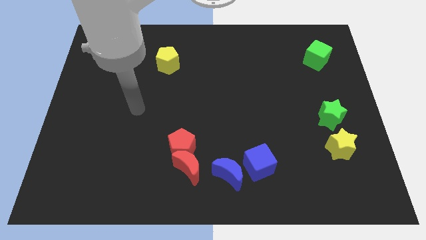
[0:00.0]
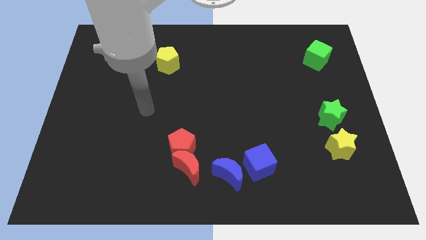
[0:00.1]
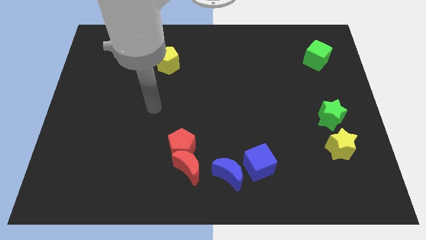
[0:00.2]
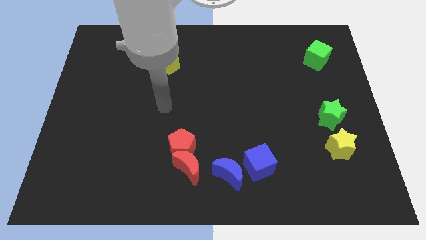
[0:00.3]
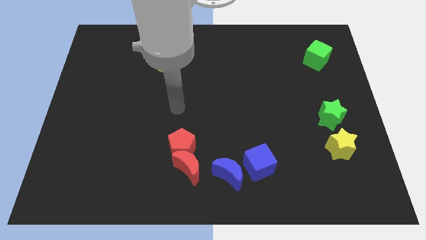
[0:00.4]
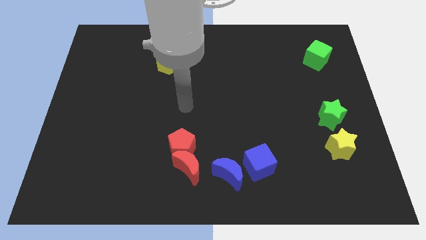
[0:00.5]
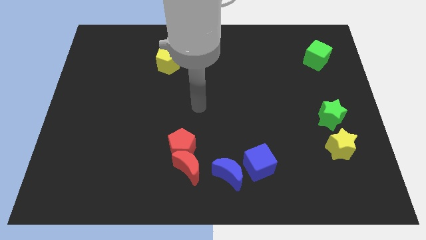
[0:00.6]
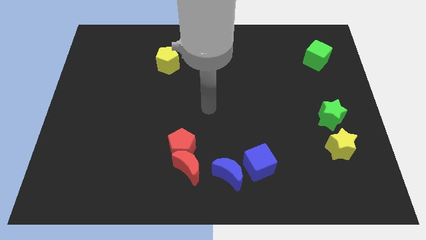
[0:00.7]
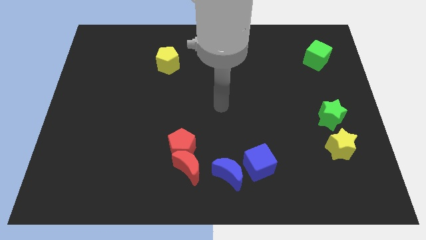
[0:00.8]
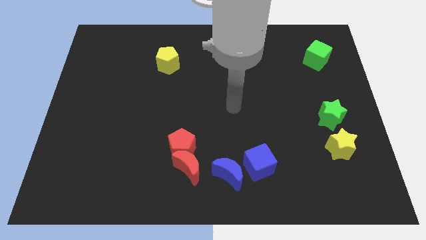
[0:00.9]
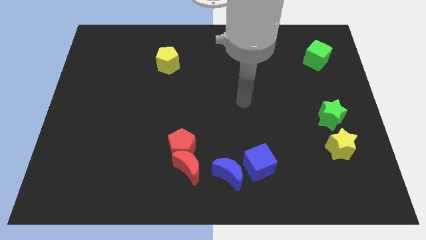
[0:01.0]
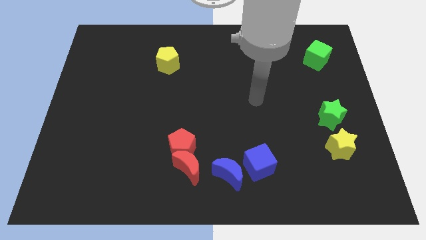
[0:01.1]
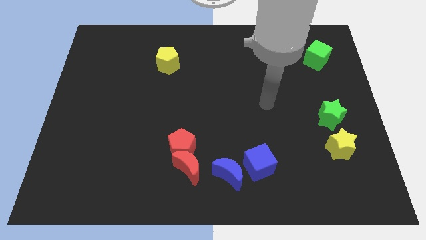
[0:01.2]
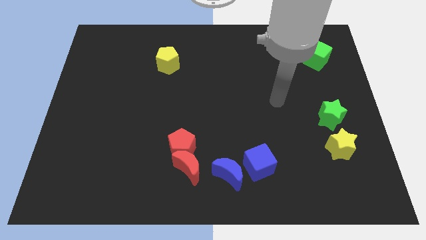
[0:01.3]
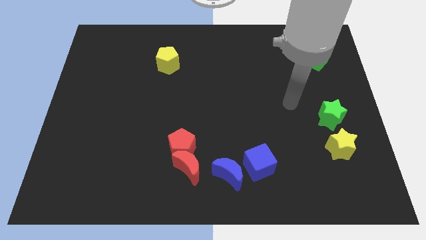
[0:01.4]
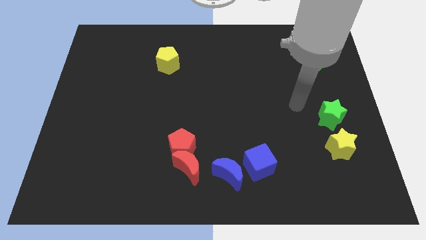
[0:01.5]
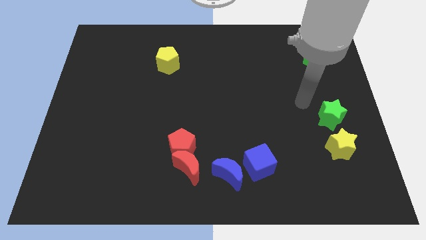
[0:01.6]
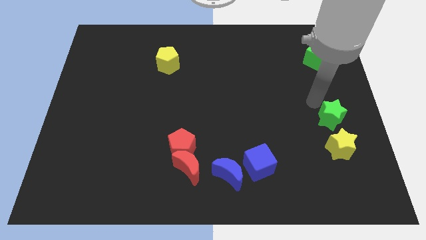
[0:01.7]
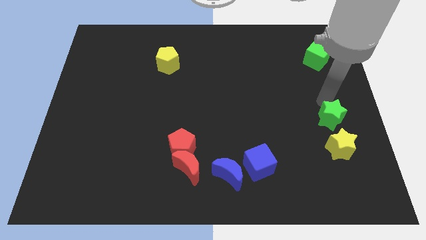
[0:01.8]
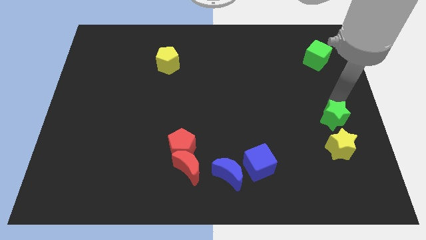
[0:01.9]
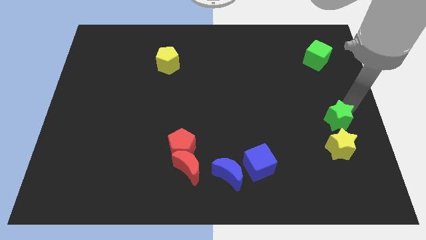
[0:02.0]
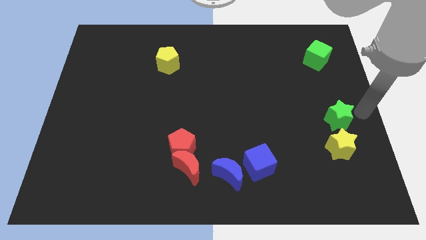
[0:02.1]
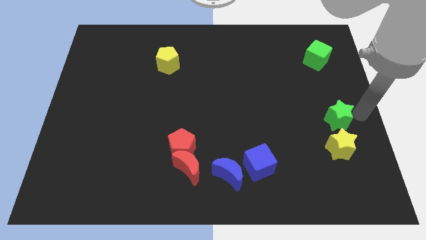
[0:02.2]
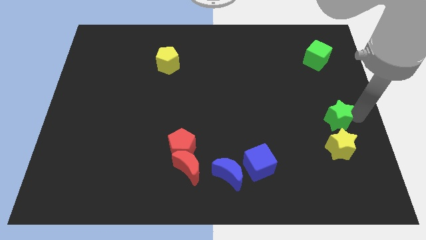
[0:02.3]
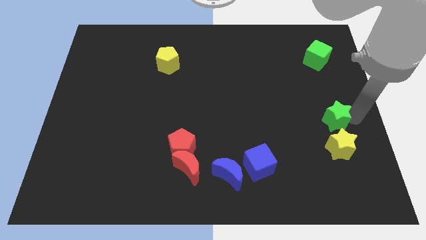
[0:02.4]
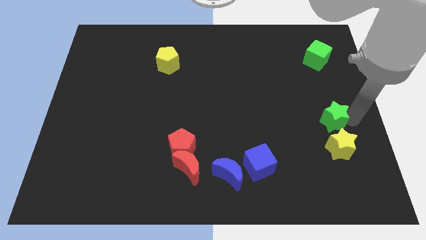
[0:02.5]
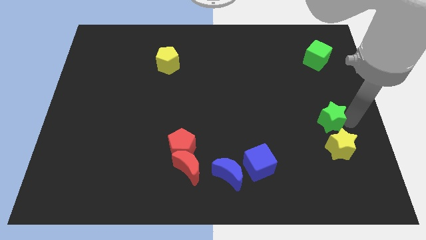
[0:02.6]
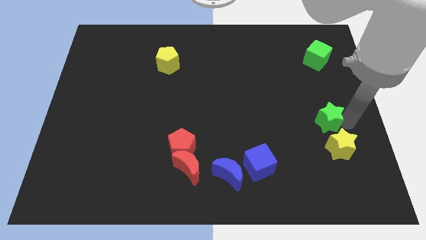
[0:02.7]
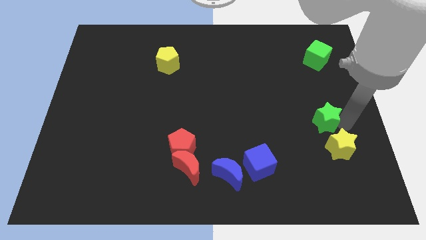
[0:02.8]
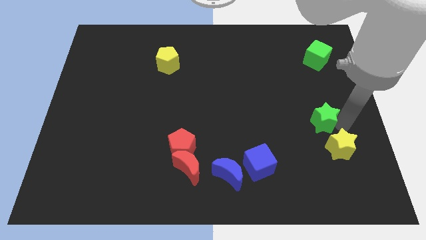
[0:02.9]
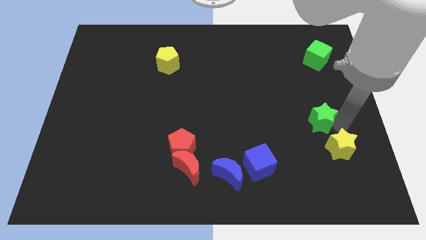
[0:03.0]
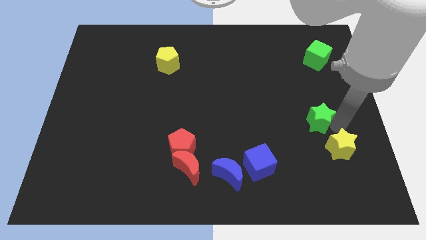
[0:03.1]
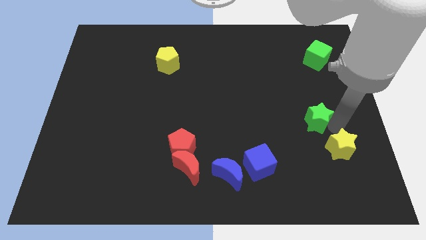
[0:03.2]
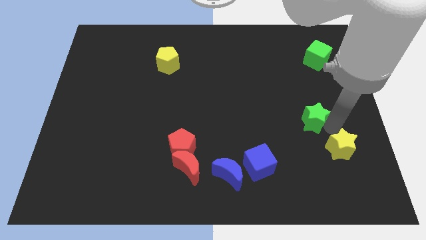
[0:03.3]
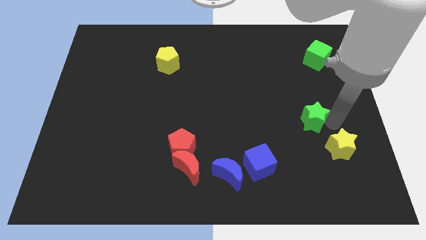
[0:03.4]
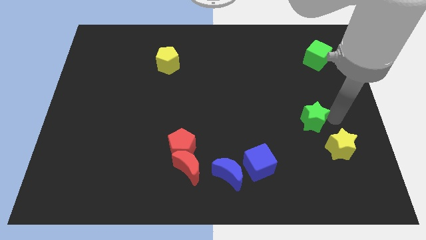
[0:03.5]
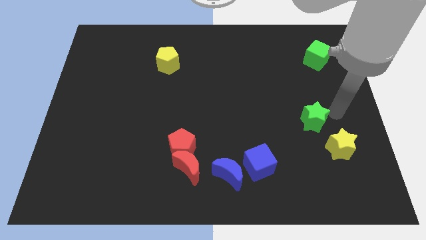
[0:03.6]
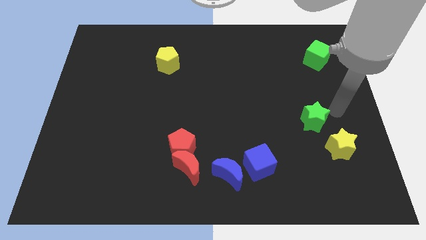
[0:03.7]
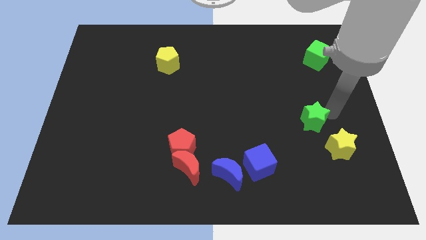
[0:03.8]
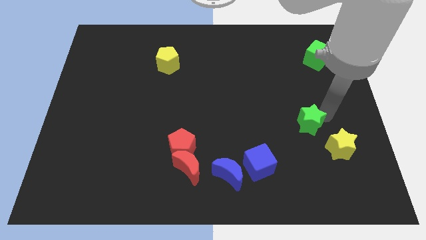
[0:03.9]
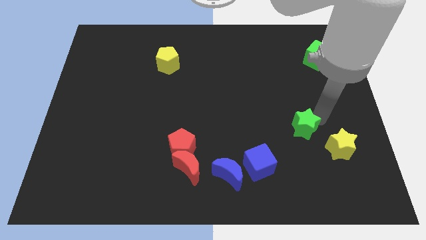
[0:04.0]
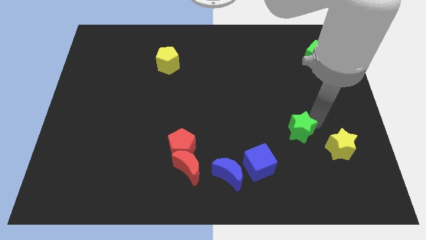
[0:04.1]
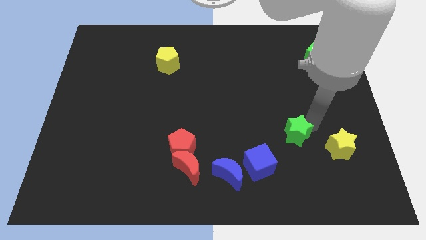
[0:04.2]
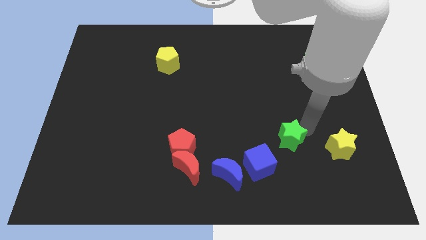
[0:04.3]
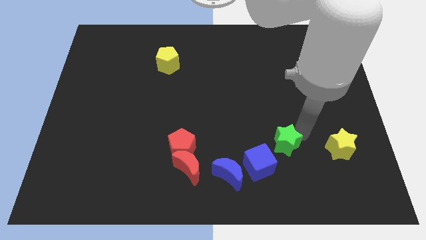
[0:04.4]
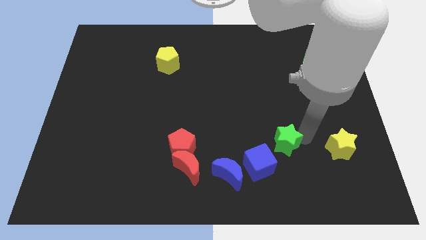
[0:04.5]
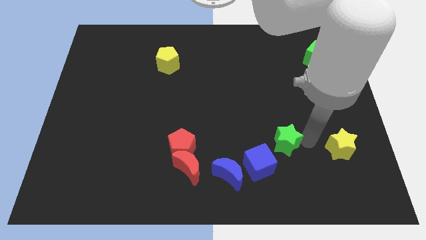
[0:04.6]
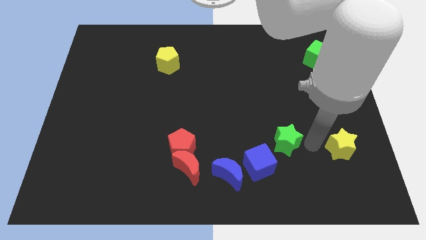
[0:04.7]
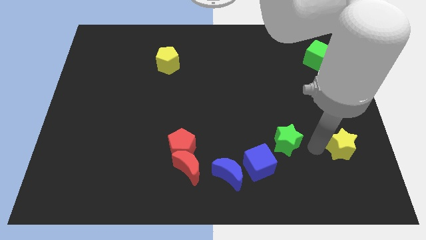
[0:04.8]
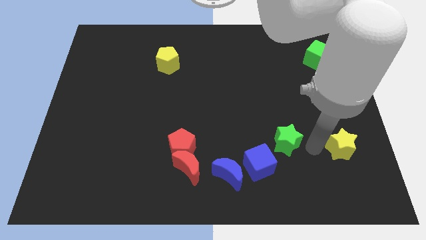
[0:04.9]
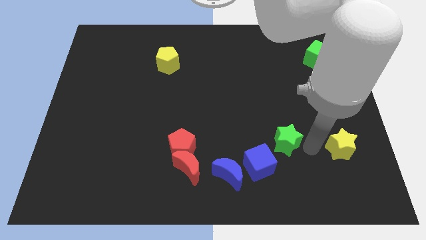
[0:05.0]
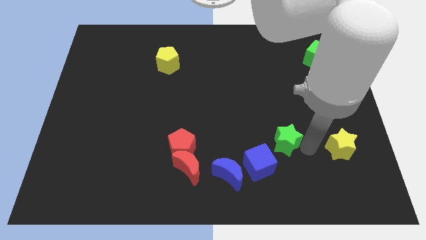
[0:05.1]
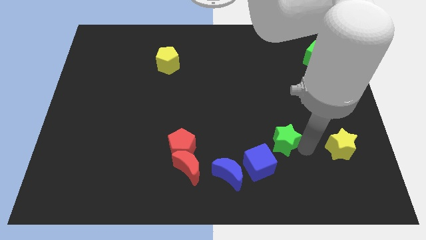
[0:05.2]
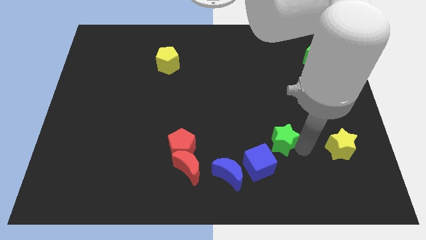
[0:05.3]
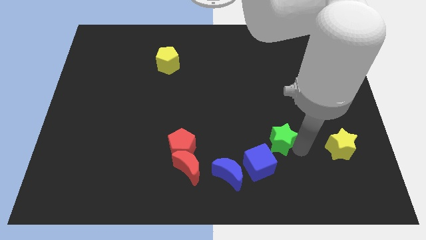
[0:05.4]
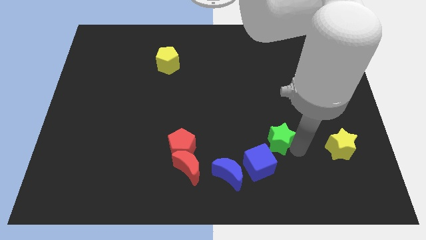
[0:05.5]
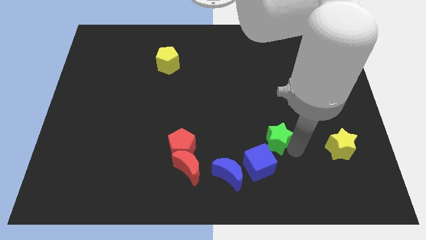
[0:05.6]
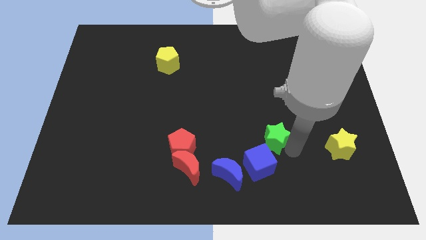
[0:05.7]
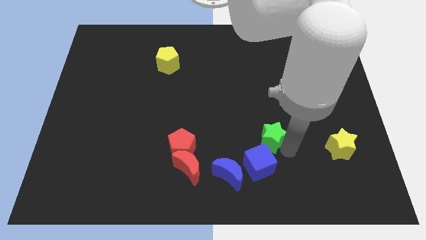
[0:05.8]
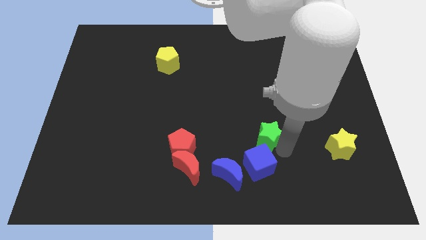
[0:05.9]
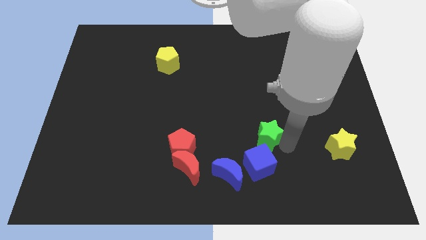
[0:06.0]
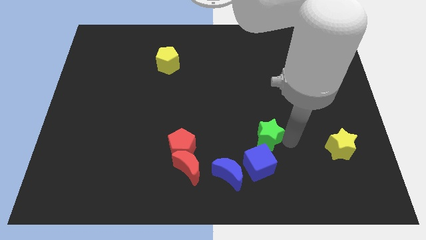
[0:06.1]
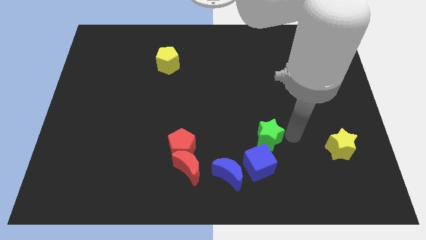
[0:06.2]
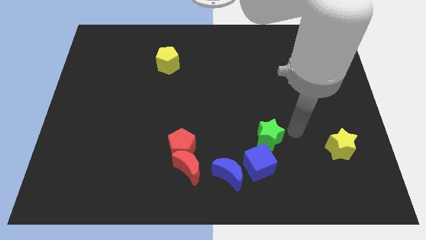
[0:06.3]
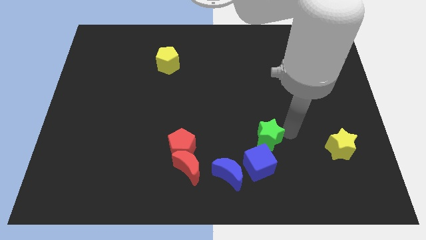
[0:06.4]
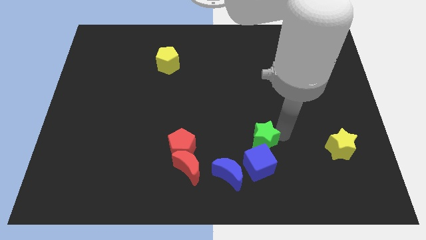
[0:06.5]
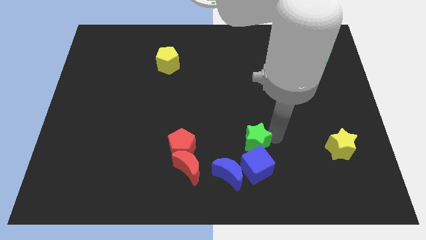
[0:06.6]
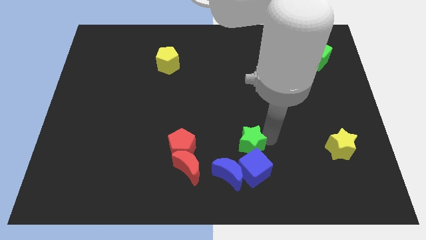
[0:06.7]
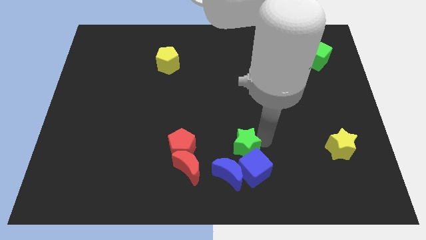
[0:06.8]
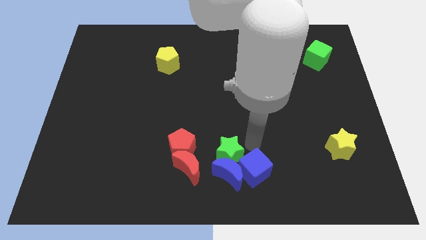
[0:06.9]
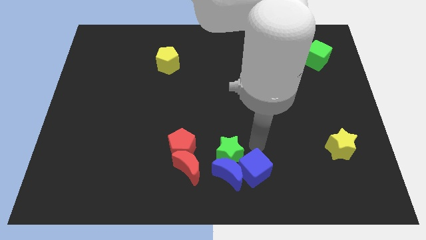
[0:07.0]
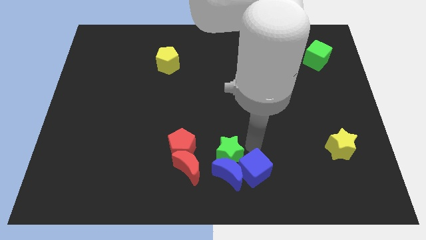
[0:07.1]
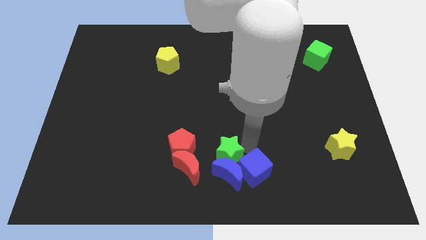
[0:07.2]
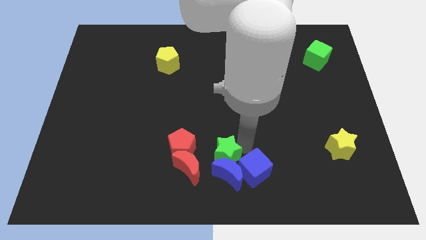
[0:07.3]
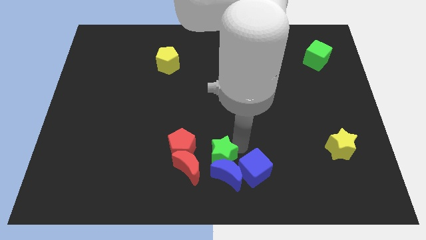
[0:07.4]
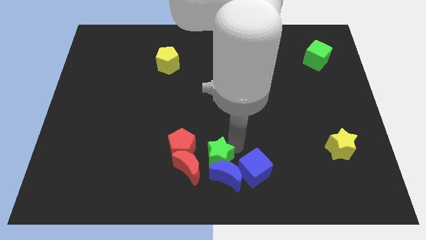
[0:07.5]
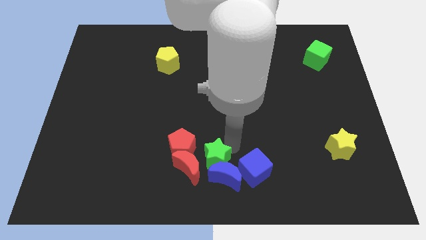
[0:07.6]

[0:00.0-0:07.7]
move the green star close to the red moon
